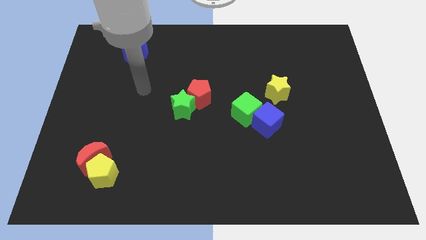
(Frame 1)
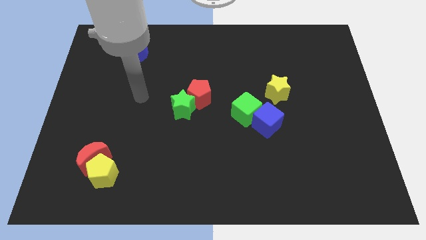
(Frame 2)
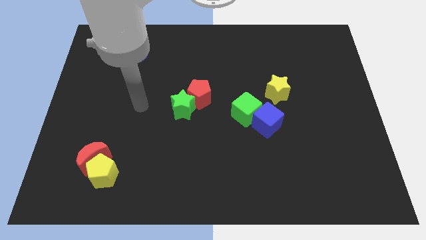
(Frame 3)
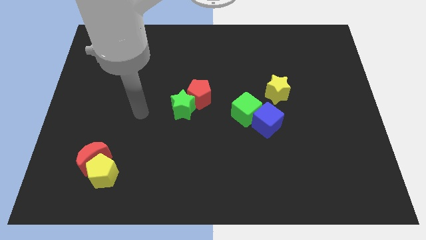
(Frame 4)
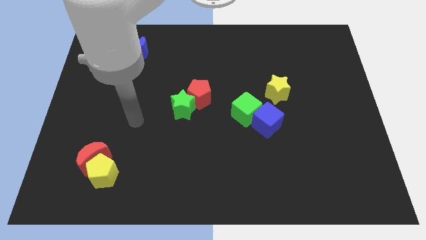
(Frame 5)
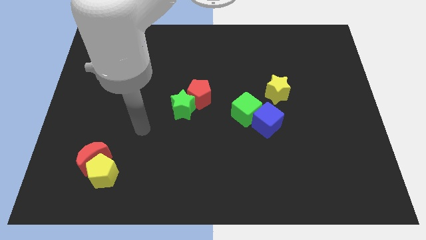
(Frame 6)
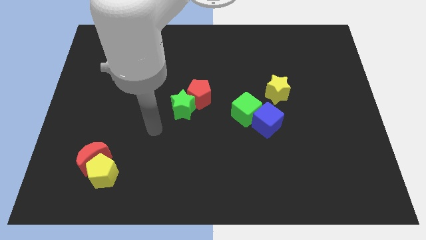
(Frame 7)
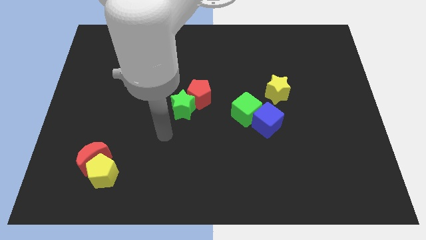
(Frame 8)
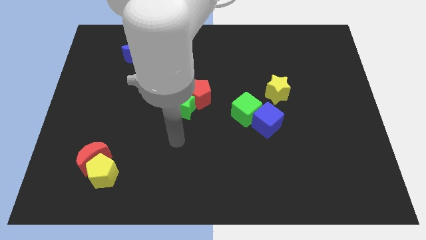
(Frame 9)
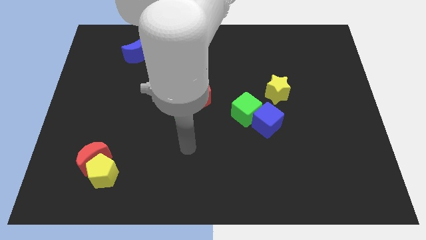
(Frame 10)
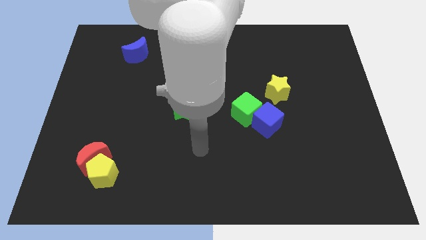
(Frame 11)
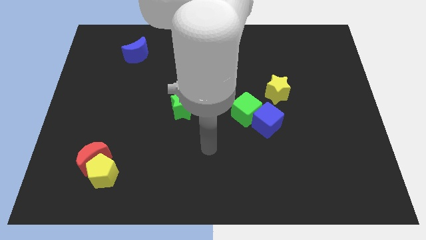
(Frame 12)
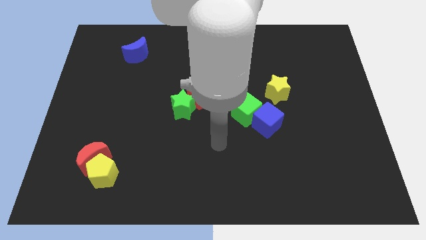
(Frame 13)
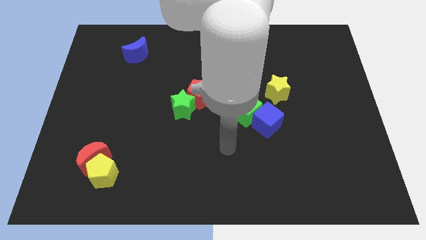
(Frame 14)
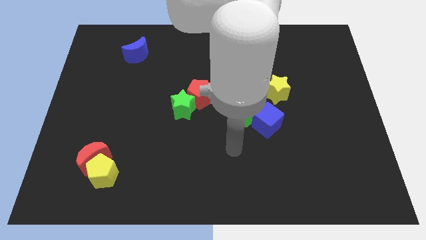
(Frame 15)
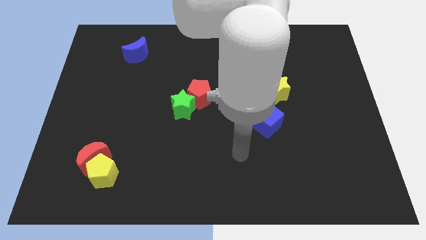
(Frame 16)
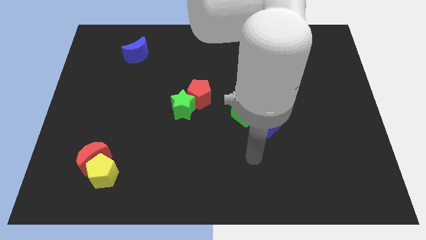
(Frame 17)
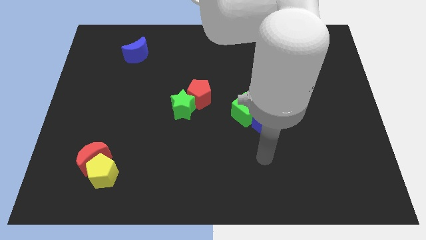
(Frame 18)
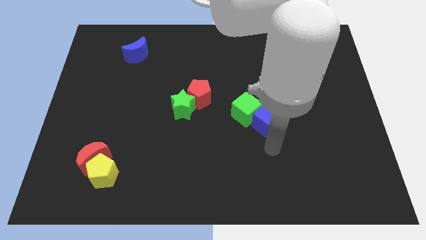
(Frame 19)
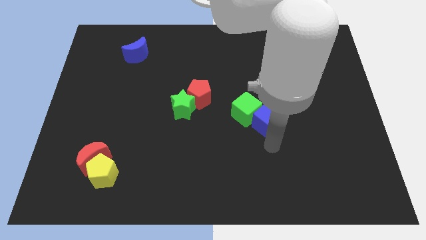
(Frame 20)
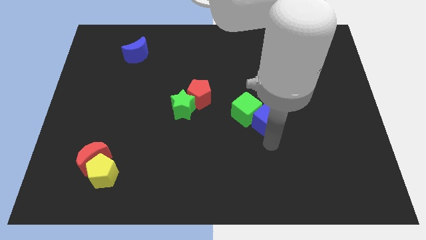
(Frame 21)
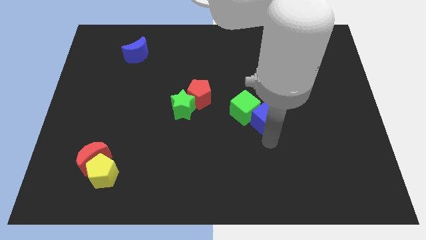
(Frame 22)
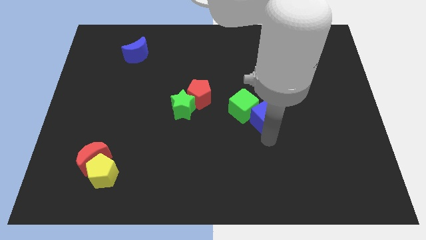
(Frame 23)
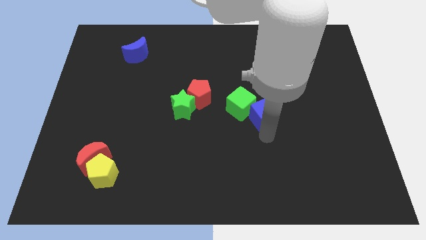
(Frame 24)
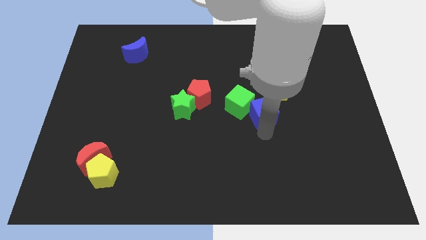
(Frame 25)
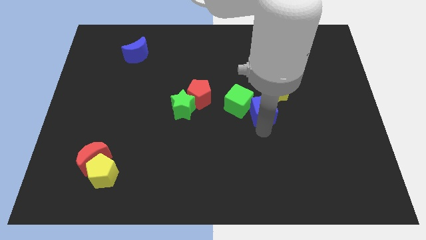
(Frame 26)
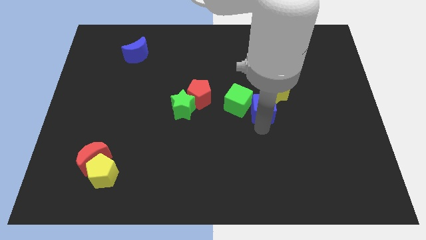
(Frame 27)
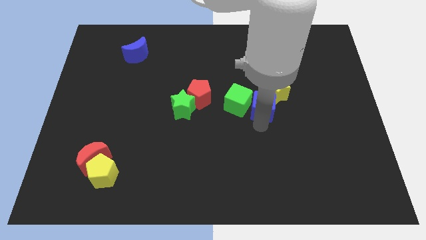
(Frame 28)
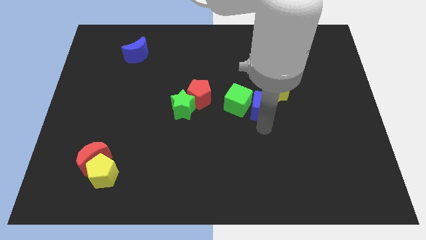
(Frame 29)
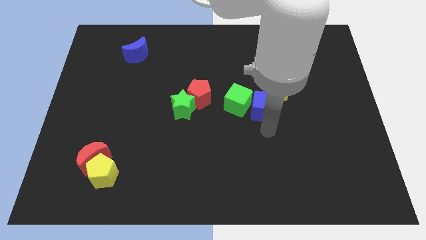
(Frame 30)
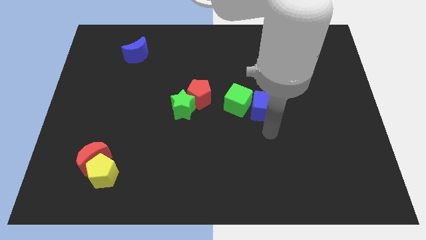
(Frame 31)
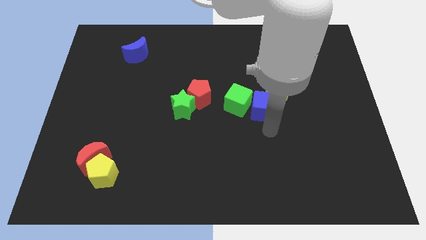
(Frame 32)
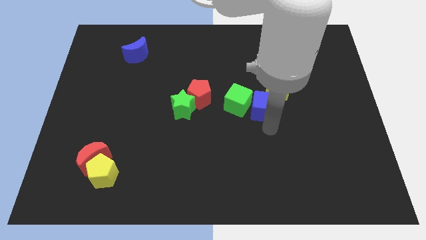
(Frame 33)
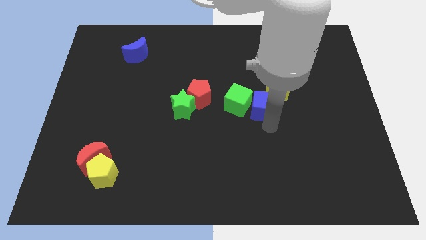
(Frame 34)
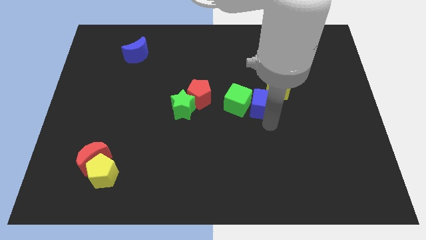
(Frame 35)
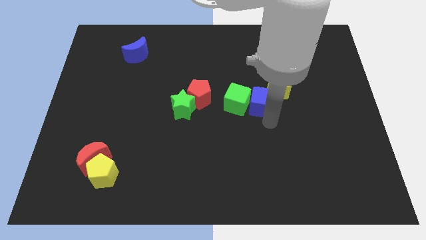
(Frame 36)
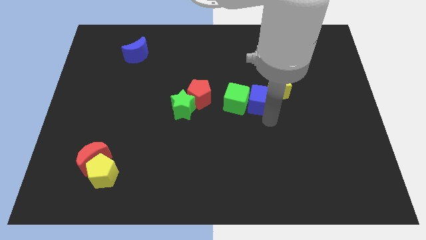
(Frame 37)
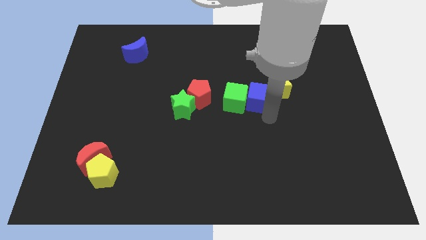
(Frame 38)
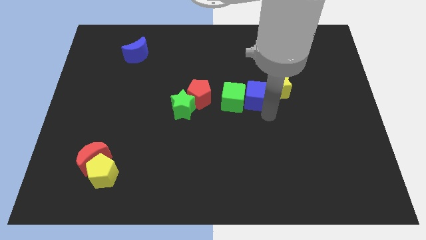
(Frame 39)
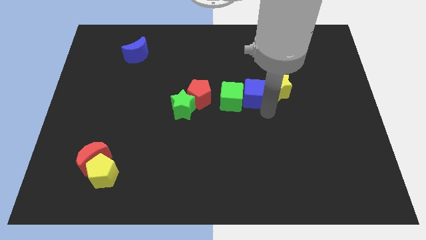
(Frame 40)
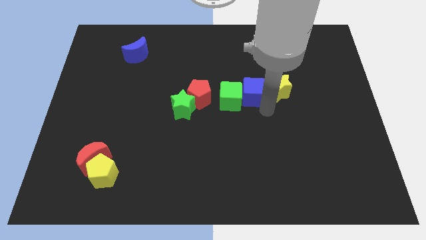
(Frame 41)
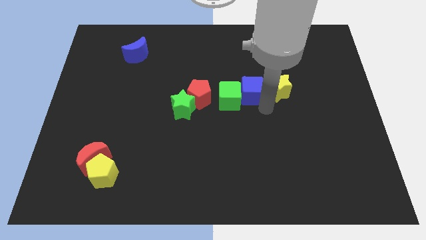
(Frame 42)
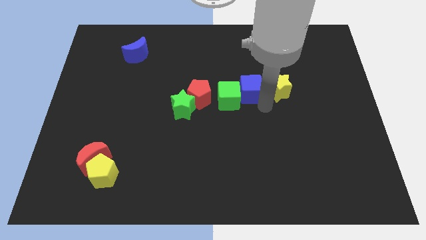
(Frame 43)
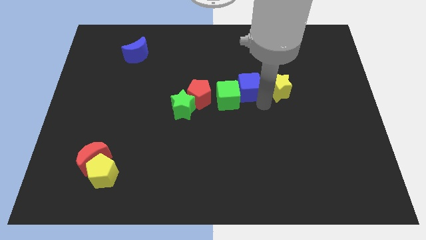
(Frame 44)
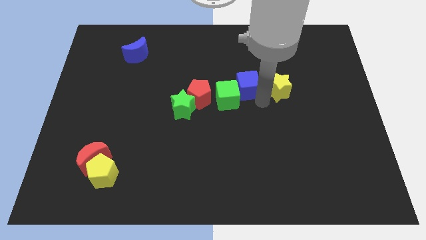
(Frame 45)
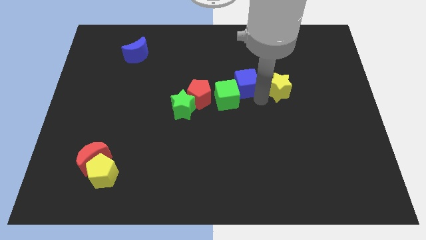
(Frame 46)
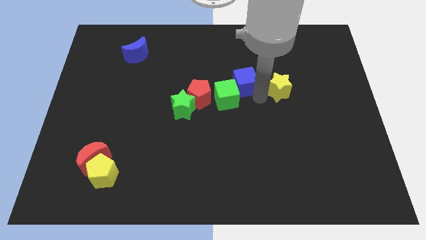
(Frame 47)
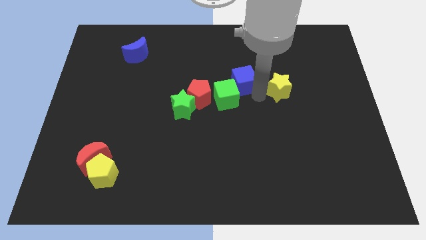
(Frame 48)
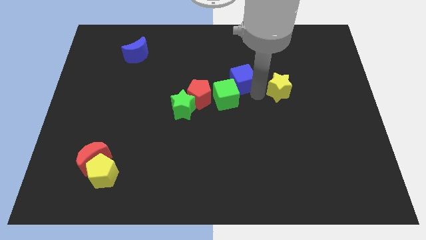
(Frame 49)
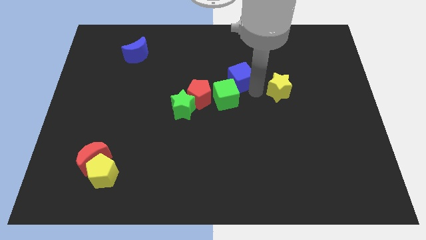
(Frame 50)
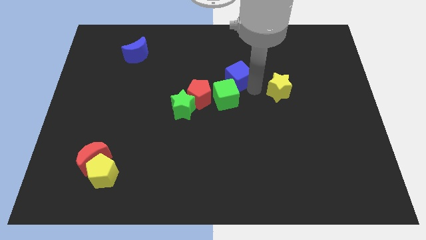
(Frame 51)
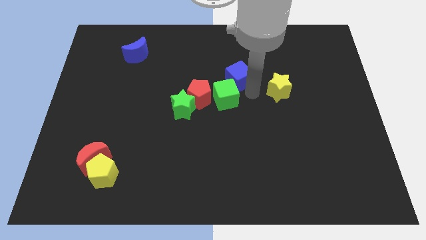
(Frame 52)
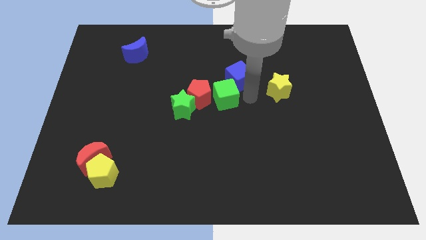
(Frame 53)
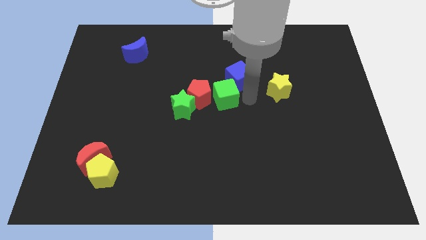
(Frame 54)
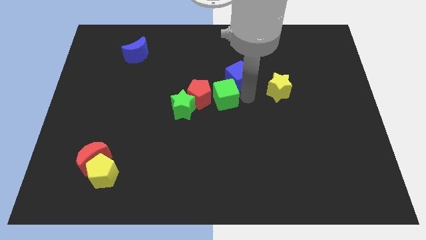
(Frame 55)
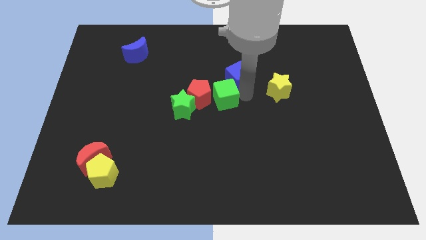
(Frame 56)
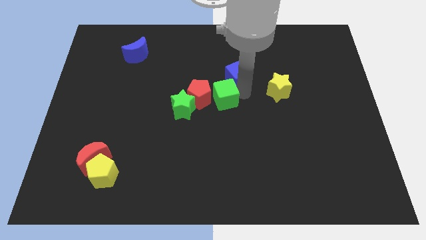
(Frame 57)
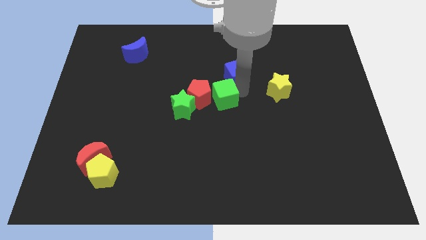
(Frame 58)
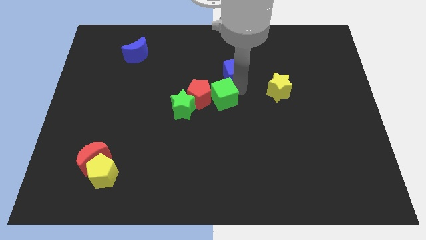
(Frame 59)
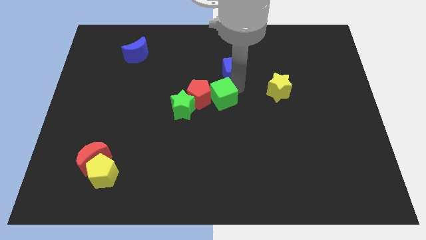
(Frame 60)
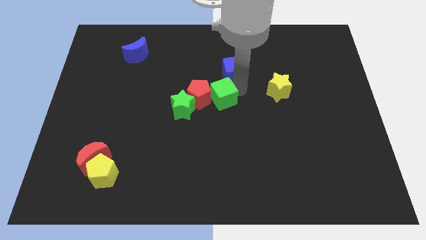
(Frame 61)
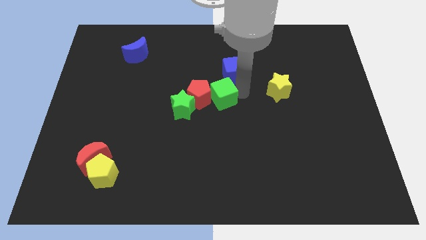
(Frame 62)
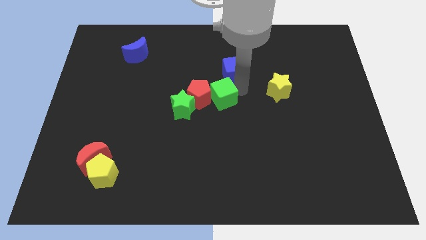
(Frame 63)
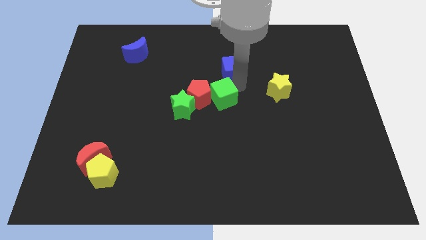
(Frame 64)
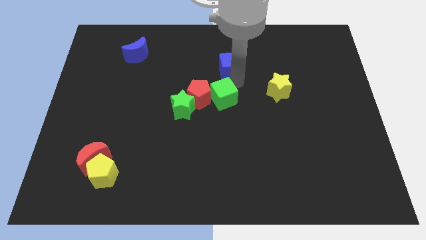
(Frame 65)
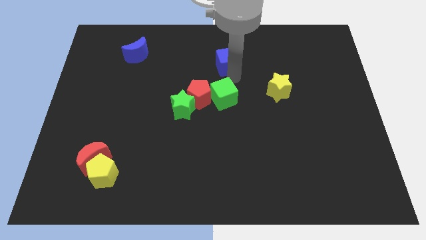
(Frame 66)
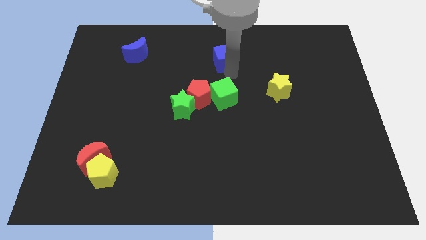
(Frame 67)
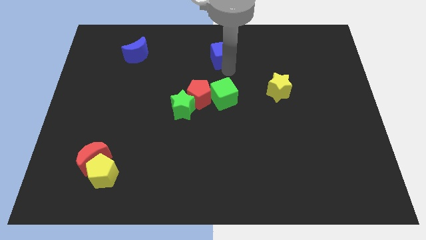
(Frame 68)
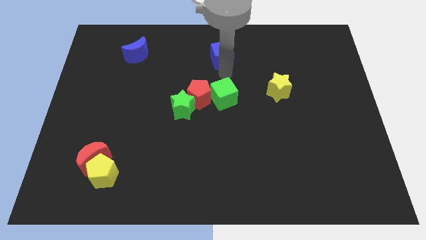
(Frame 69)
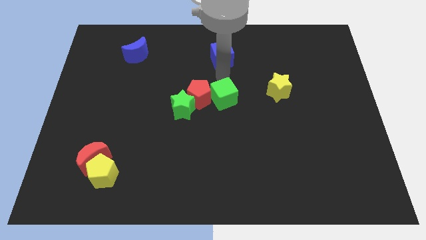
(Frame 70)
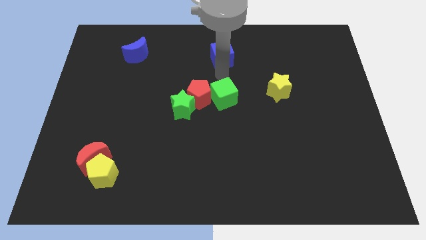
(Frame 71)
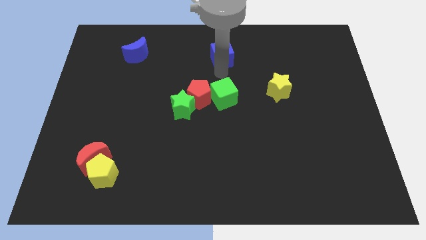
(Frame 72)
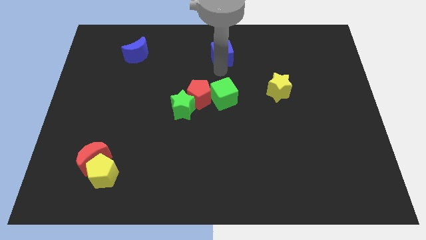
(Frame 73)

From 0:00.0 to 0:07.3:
put the blue cube to the top

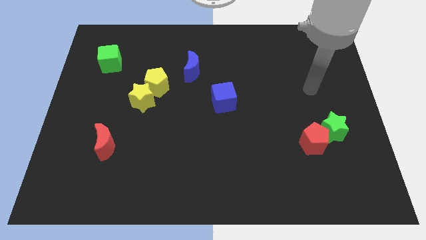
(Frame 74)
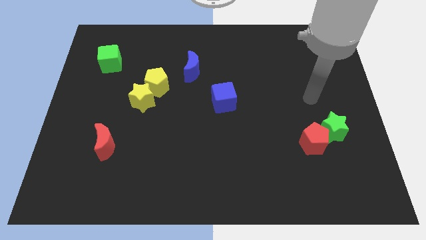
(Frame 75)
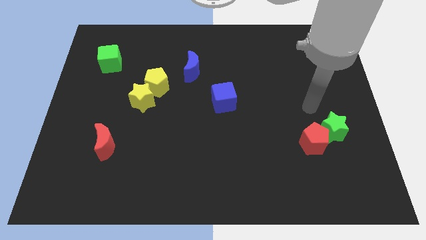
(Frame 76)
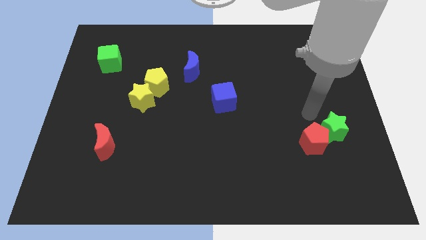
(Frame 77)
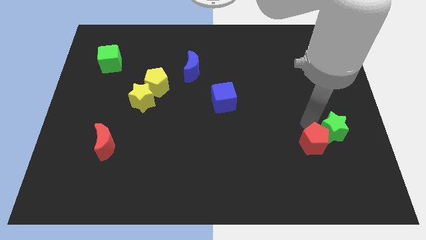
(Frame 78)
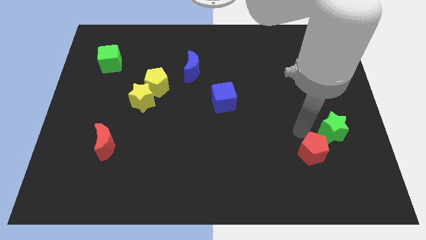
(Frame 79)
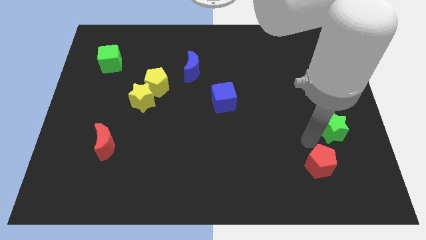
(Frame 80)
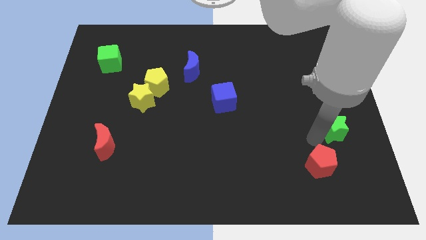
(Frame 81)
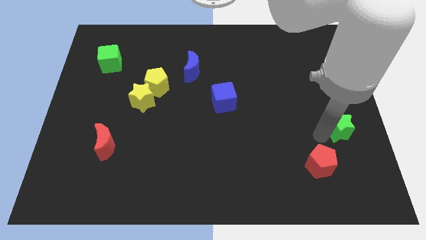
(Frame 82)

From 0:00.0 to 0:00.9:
slide the green star to the right side
